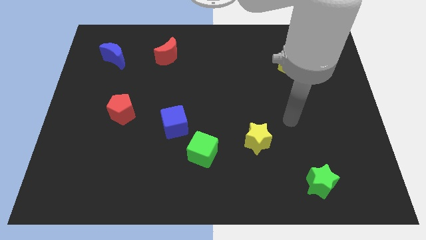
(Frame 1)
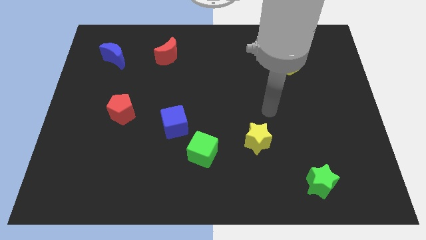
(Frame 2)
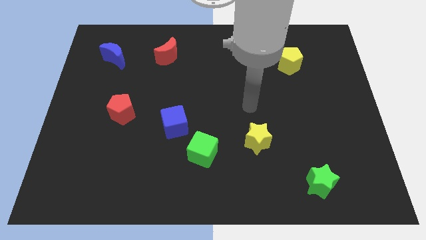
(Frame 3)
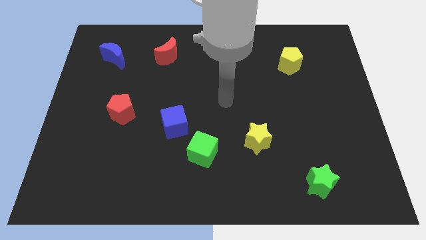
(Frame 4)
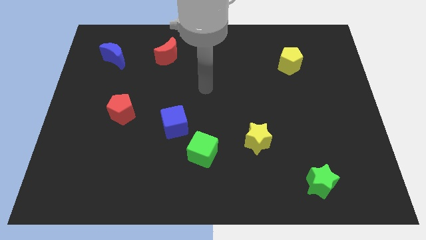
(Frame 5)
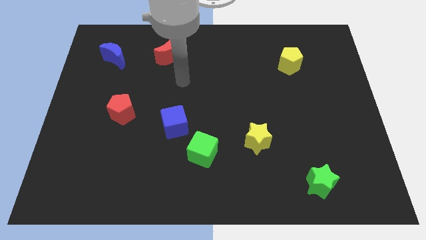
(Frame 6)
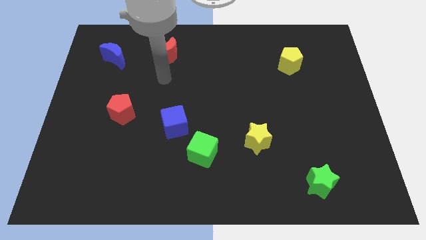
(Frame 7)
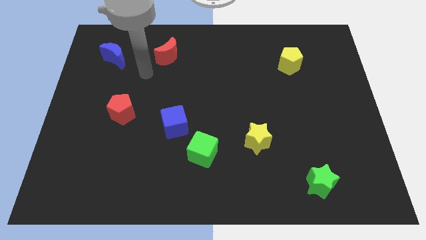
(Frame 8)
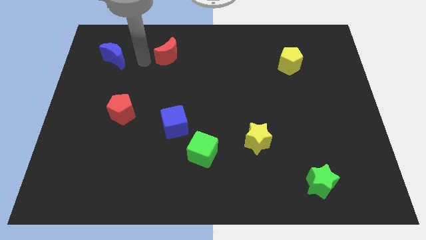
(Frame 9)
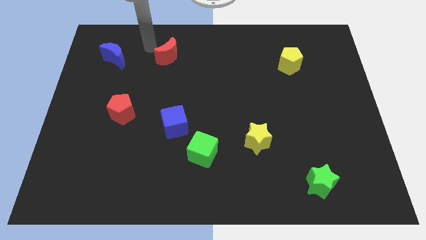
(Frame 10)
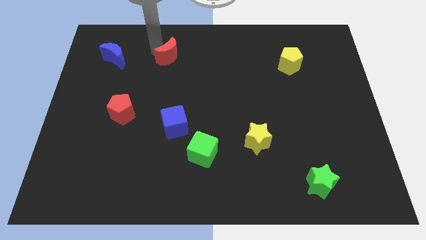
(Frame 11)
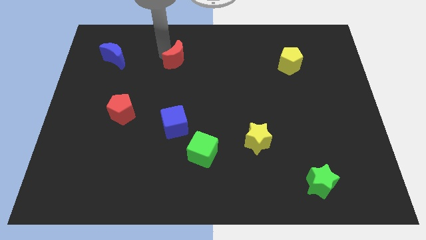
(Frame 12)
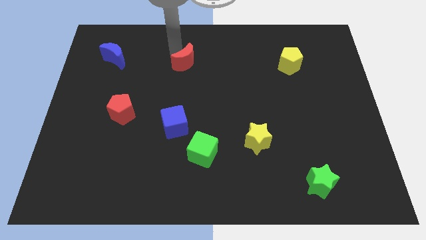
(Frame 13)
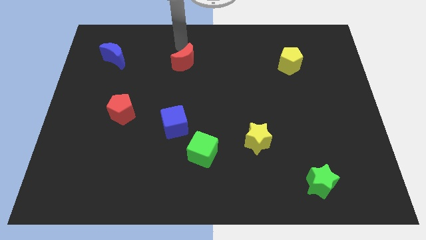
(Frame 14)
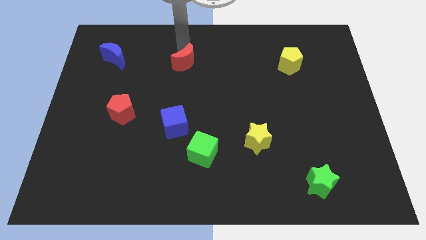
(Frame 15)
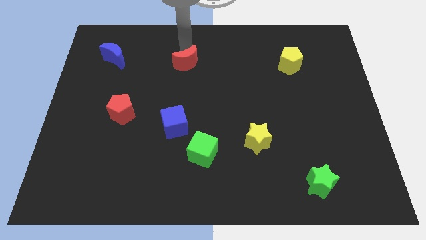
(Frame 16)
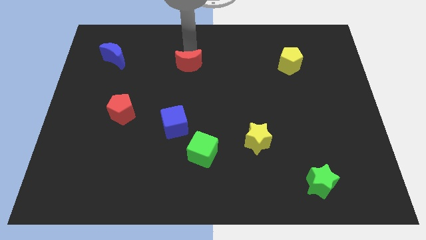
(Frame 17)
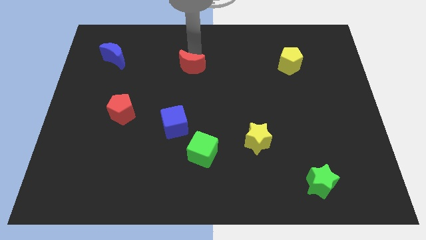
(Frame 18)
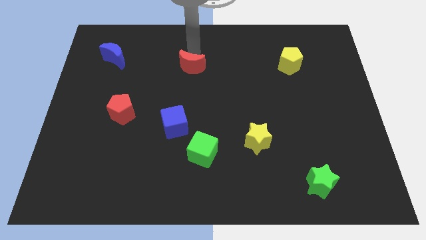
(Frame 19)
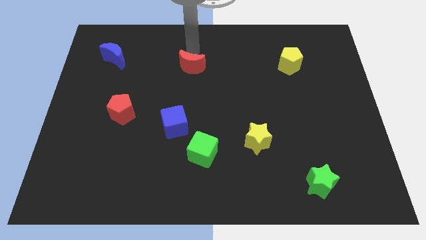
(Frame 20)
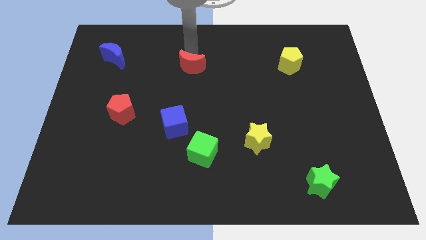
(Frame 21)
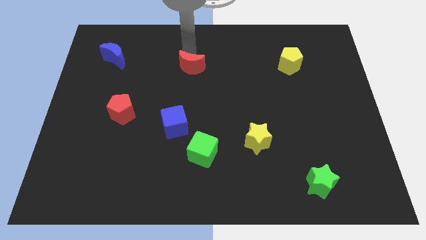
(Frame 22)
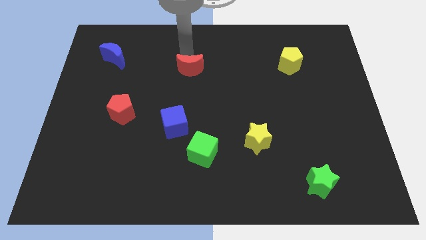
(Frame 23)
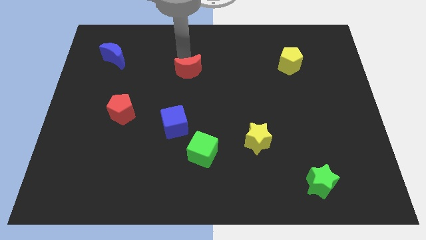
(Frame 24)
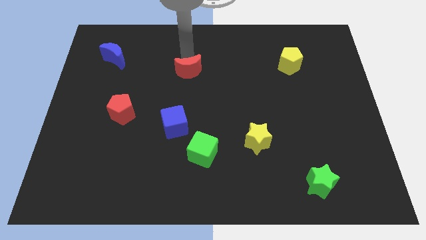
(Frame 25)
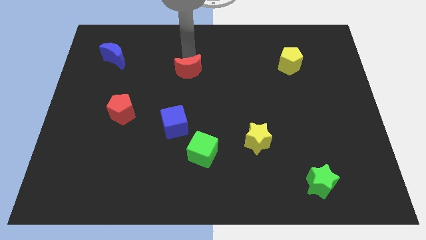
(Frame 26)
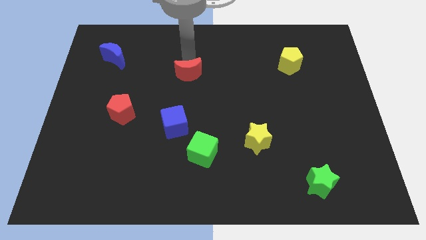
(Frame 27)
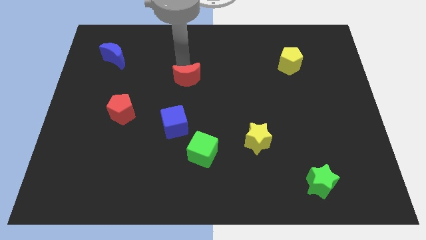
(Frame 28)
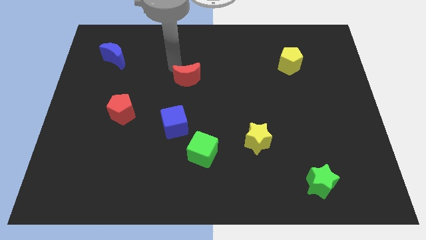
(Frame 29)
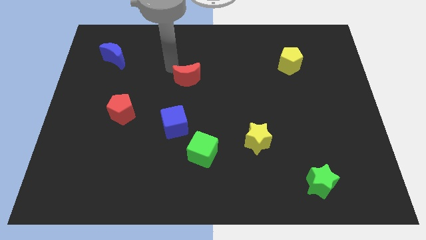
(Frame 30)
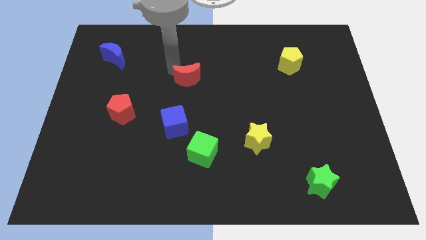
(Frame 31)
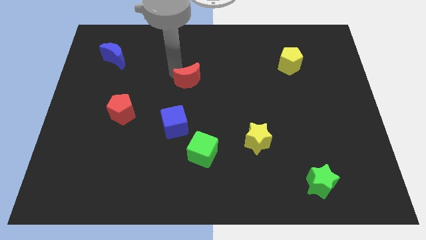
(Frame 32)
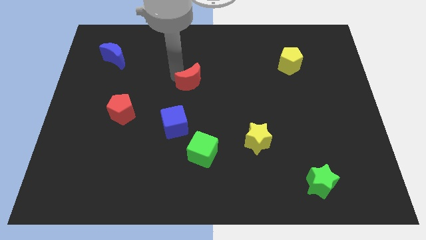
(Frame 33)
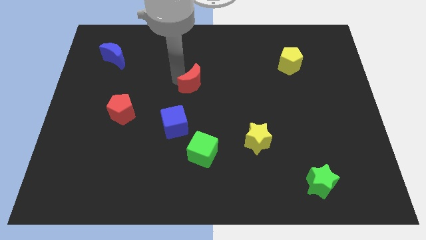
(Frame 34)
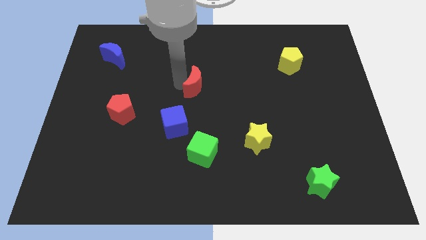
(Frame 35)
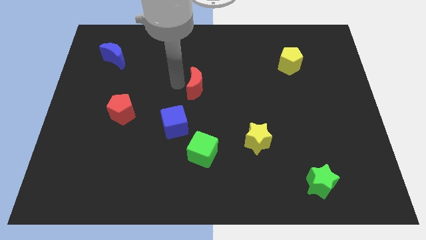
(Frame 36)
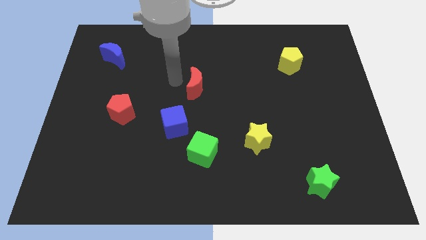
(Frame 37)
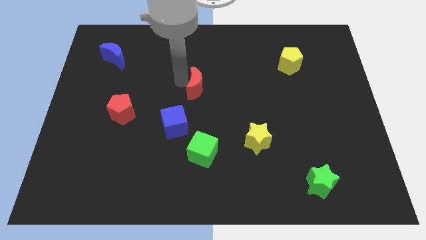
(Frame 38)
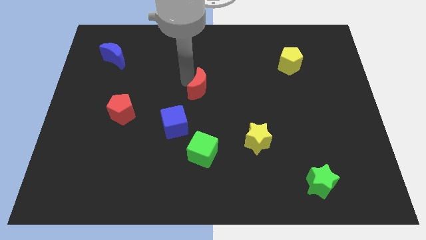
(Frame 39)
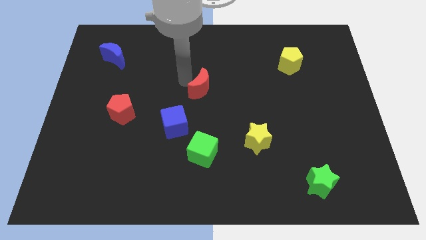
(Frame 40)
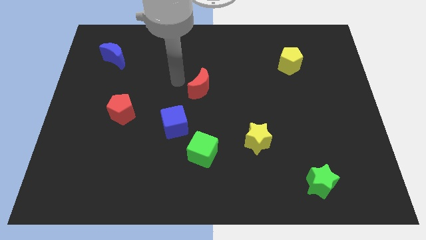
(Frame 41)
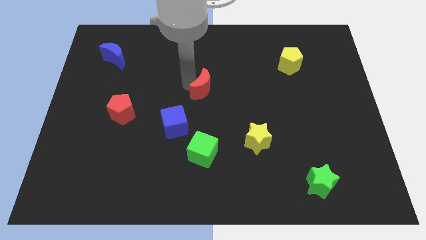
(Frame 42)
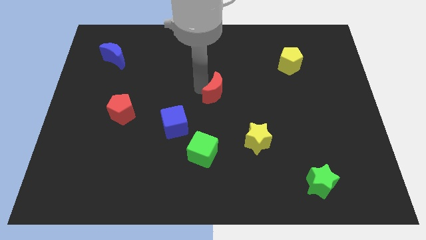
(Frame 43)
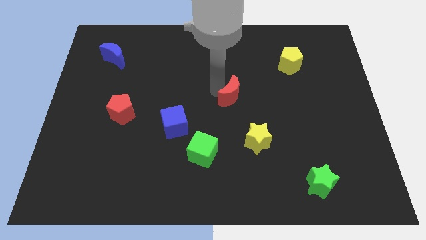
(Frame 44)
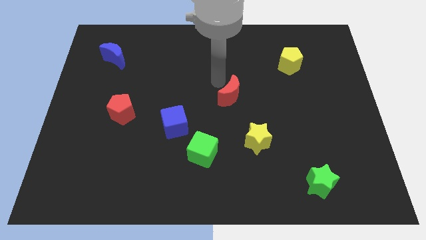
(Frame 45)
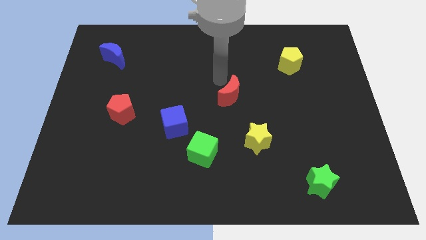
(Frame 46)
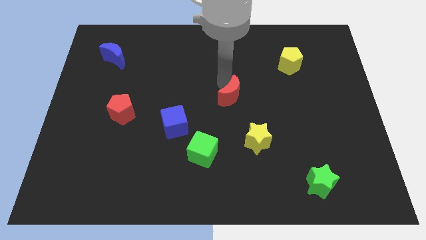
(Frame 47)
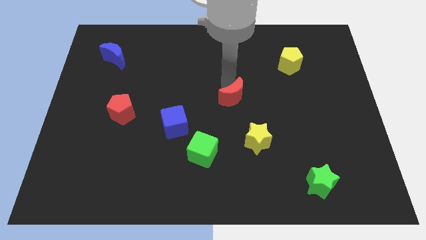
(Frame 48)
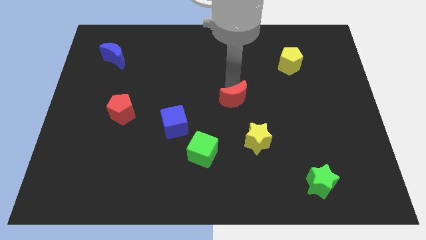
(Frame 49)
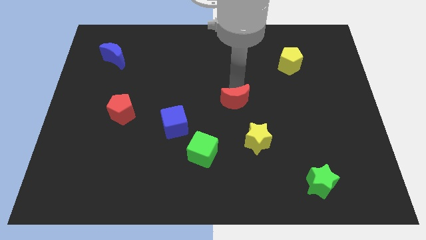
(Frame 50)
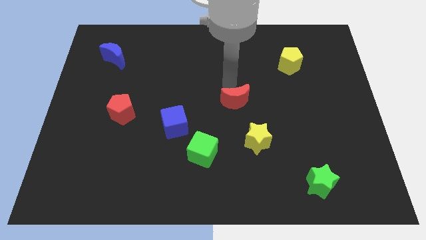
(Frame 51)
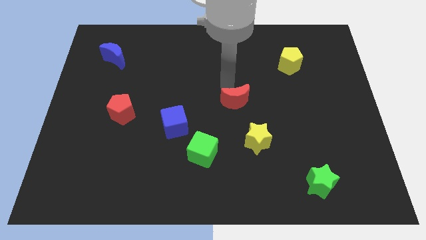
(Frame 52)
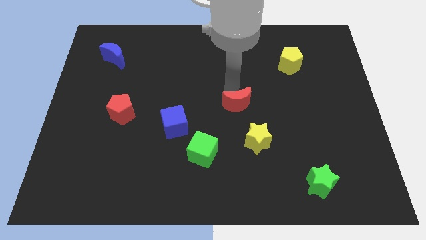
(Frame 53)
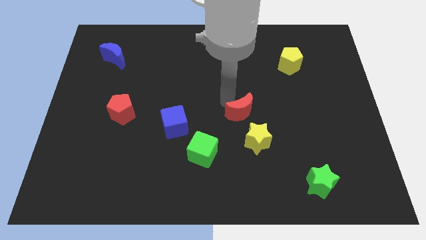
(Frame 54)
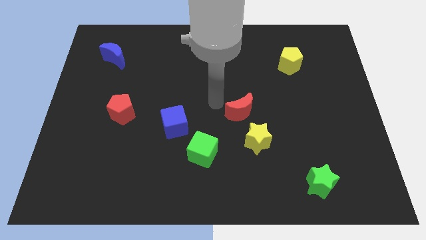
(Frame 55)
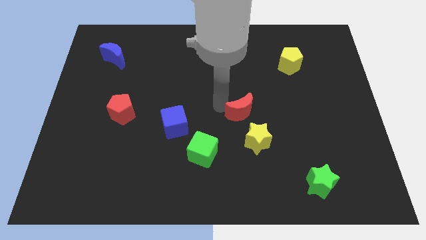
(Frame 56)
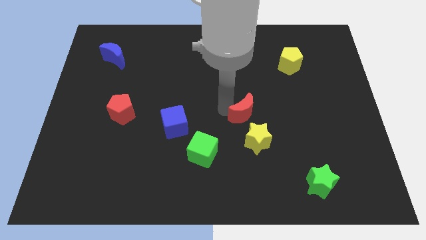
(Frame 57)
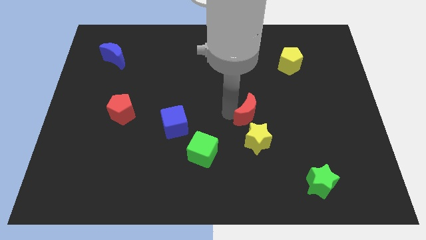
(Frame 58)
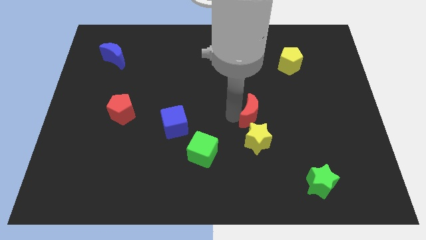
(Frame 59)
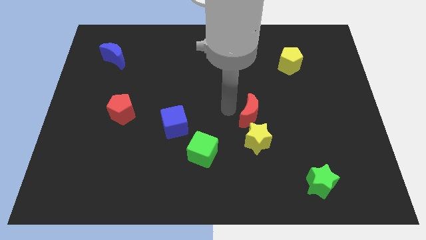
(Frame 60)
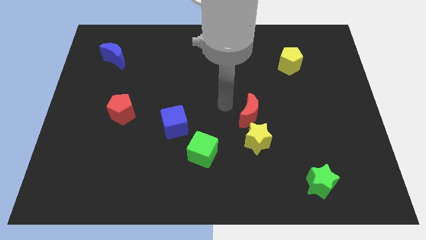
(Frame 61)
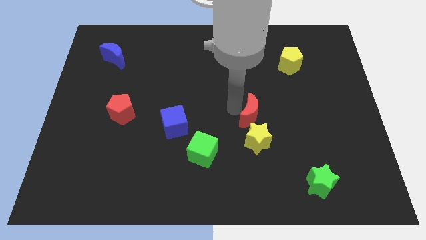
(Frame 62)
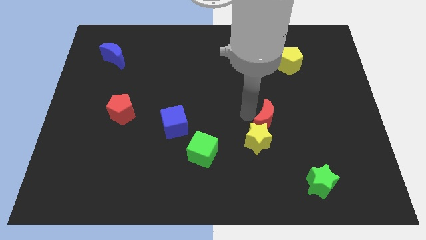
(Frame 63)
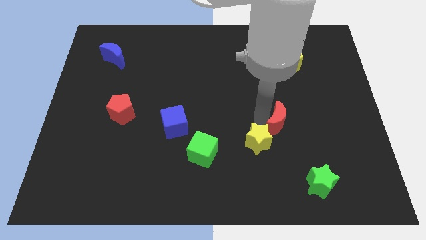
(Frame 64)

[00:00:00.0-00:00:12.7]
put the red moon to the right side of the yellow star

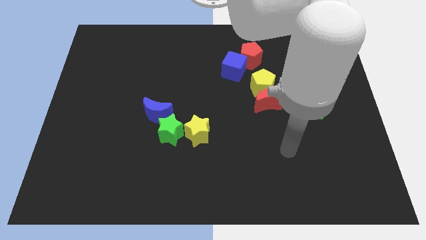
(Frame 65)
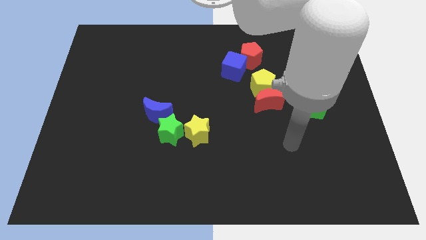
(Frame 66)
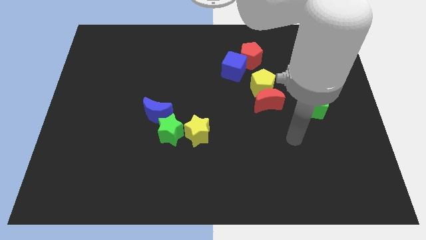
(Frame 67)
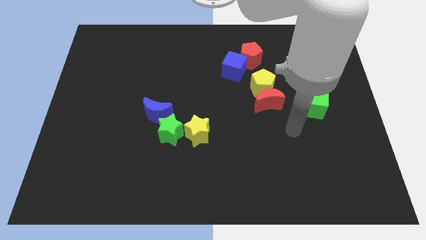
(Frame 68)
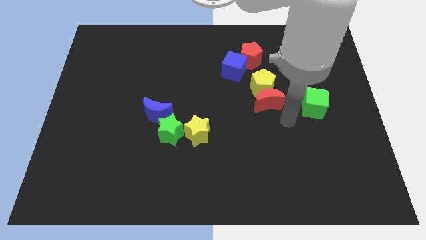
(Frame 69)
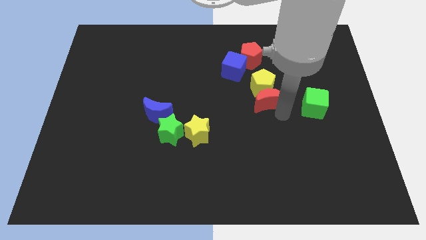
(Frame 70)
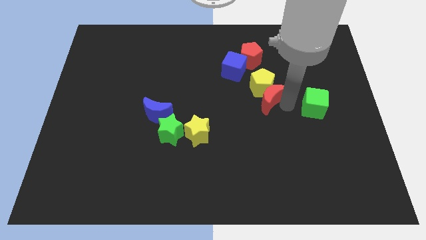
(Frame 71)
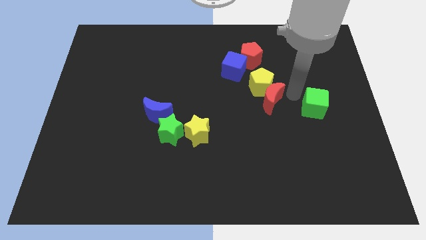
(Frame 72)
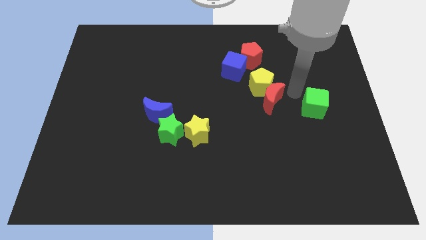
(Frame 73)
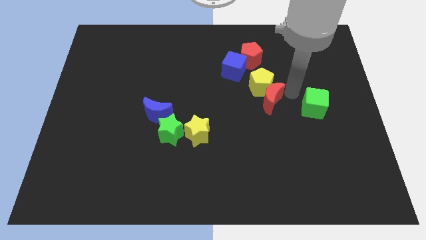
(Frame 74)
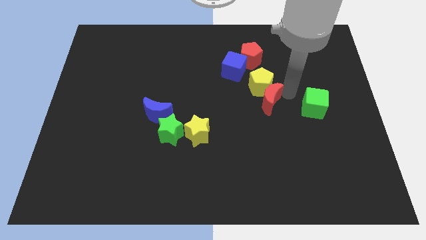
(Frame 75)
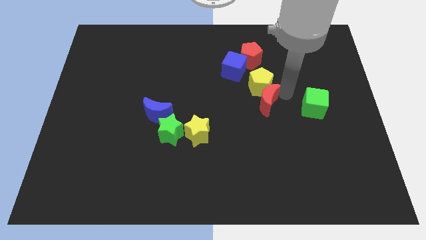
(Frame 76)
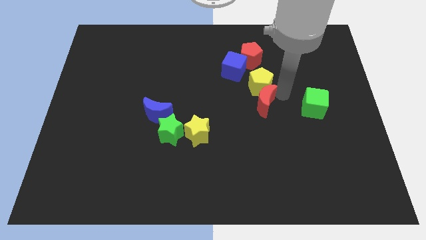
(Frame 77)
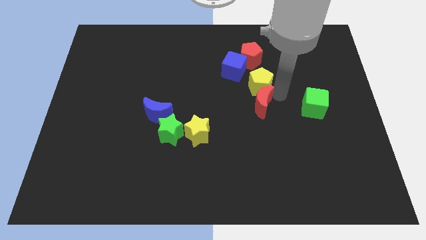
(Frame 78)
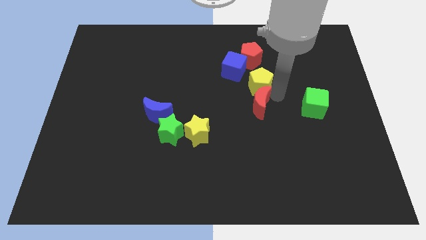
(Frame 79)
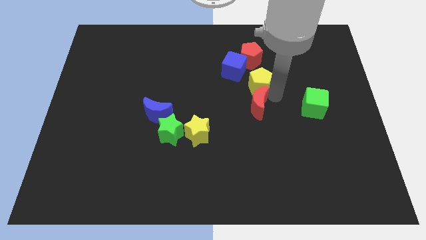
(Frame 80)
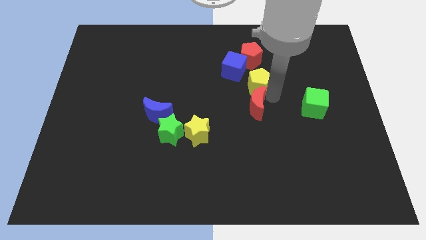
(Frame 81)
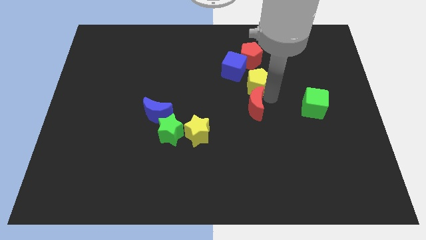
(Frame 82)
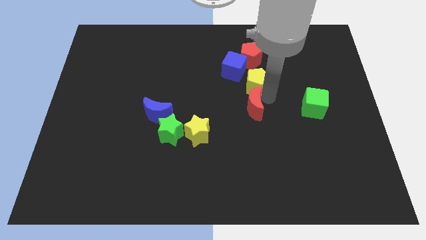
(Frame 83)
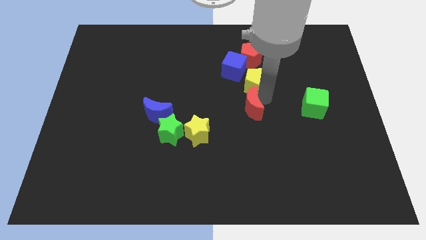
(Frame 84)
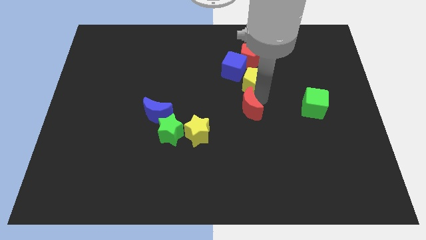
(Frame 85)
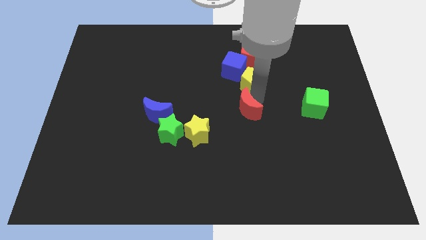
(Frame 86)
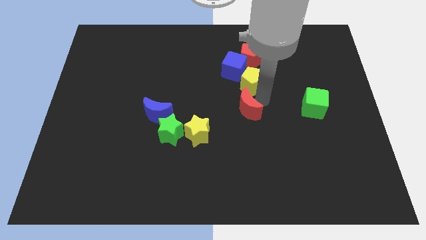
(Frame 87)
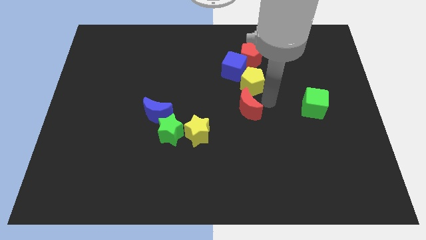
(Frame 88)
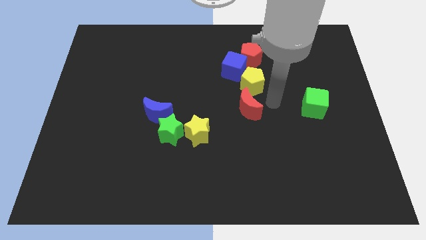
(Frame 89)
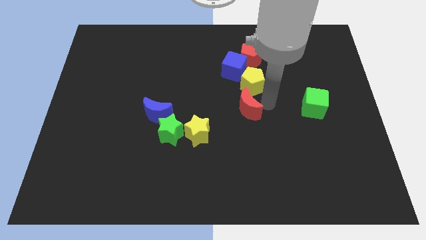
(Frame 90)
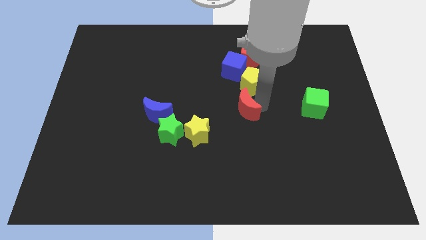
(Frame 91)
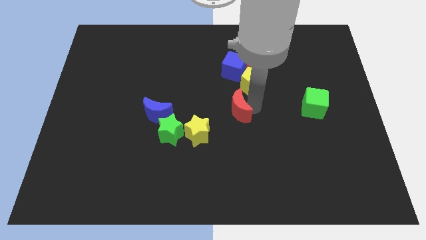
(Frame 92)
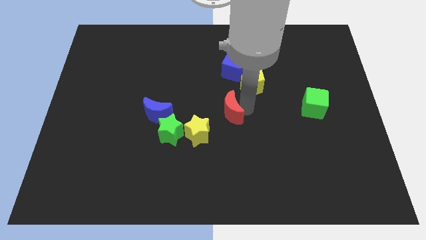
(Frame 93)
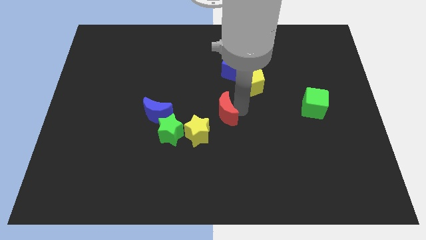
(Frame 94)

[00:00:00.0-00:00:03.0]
push the red moon to the right of the blue moon
